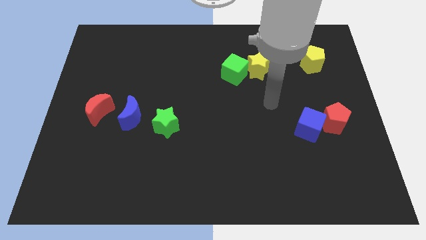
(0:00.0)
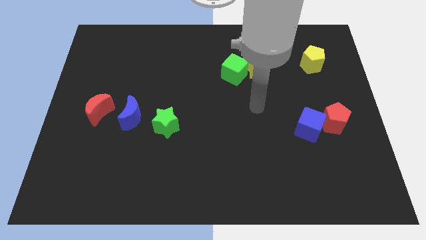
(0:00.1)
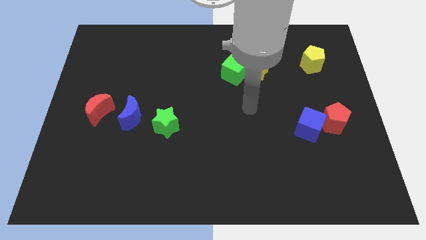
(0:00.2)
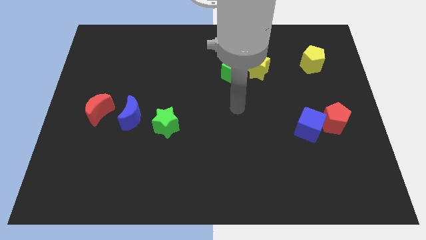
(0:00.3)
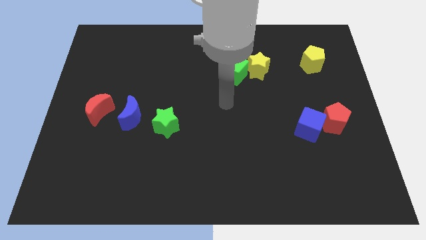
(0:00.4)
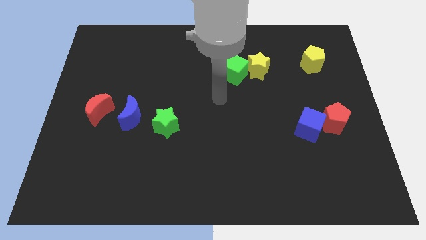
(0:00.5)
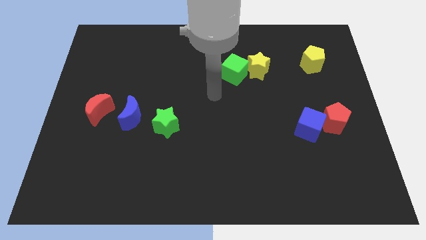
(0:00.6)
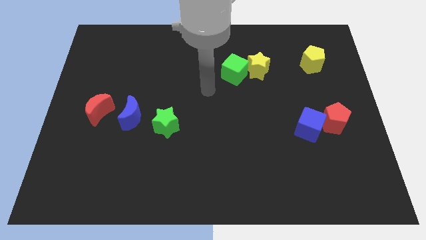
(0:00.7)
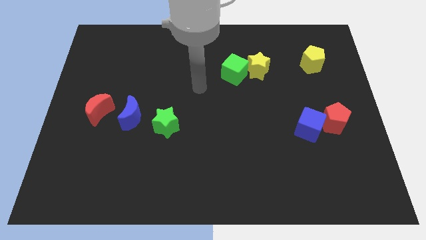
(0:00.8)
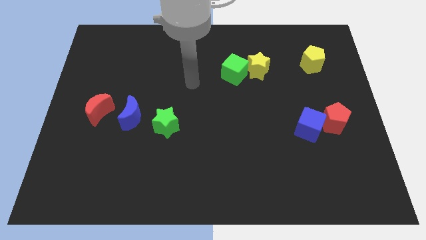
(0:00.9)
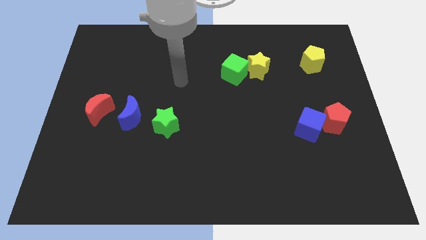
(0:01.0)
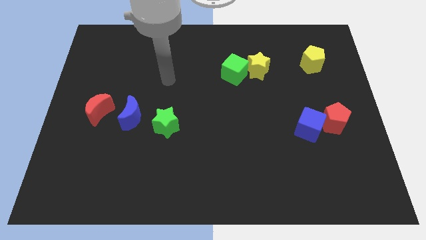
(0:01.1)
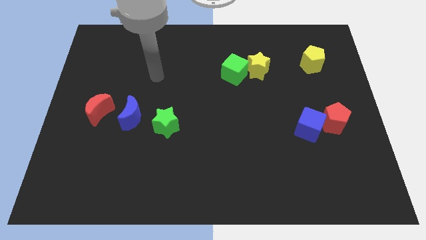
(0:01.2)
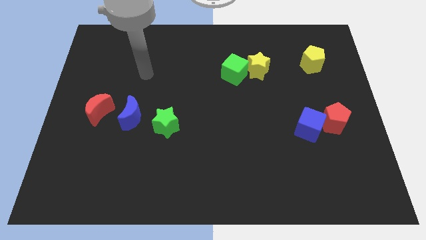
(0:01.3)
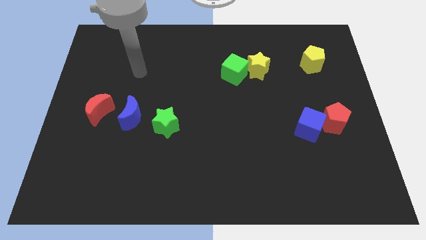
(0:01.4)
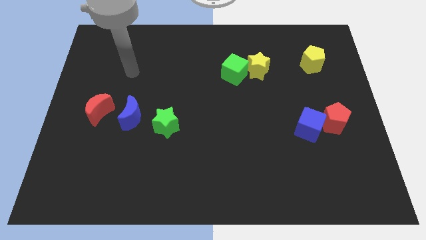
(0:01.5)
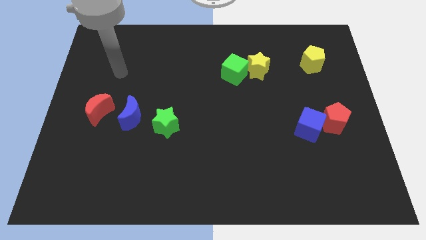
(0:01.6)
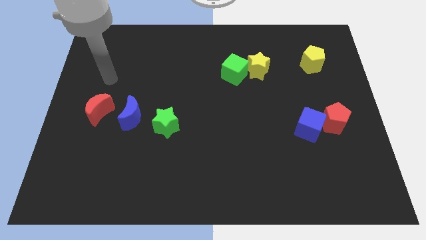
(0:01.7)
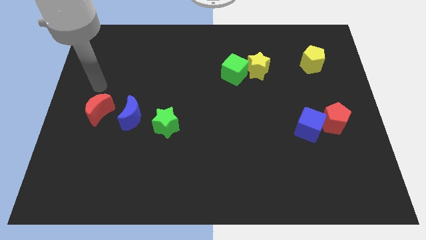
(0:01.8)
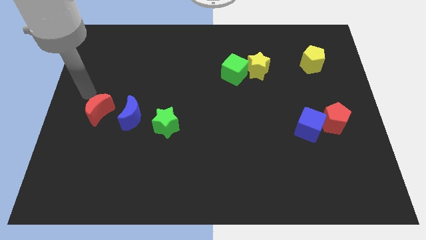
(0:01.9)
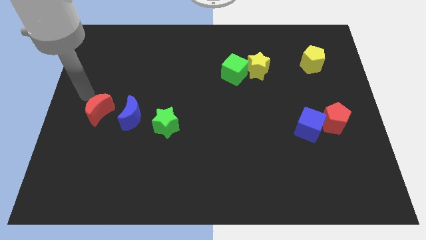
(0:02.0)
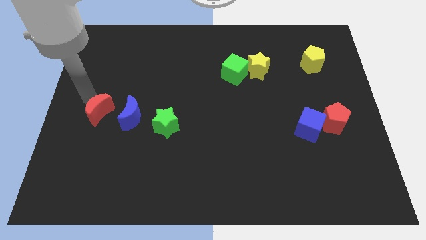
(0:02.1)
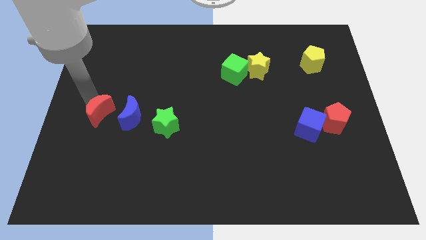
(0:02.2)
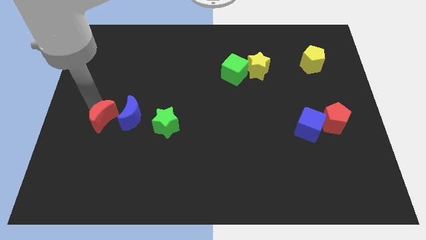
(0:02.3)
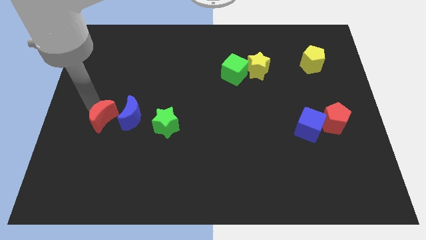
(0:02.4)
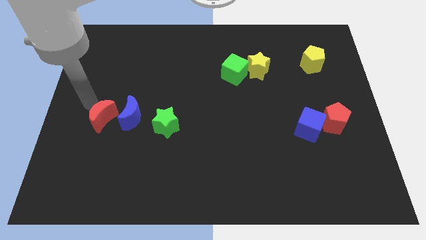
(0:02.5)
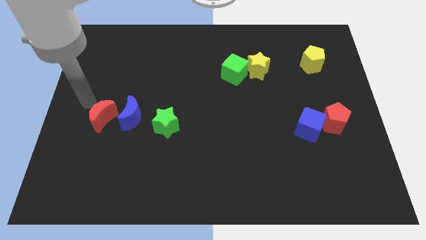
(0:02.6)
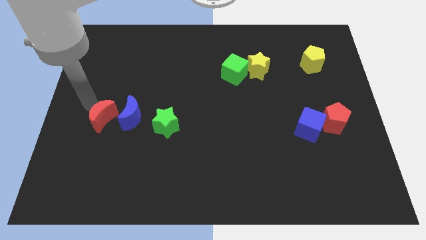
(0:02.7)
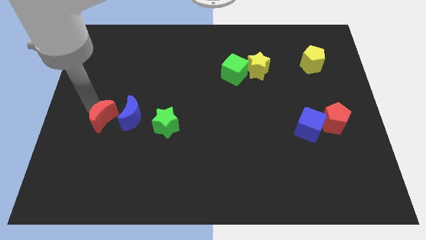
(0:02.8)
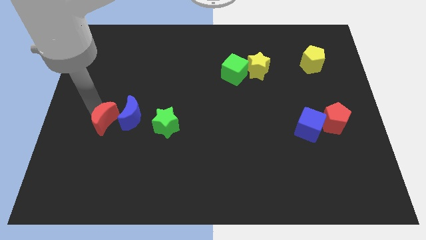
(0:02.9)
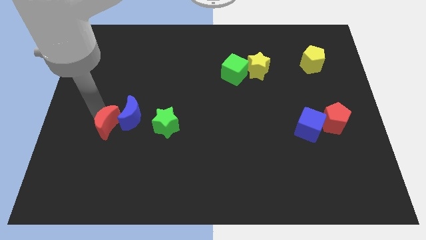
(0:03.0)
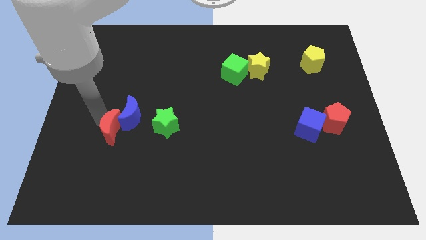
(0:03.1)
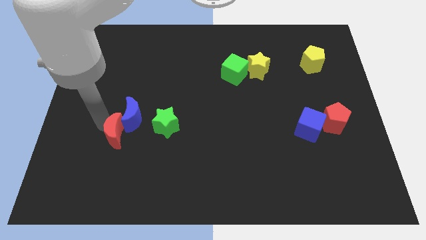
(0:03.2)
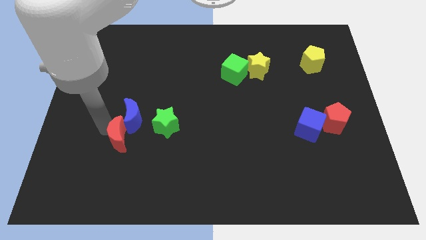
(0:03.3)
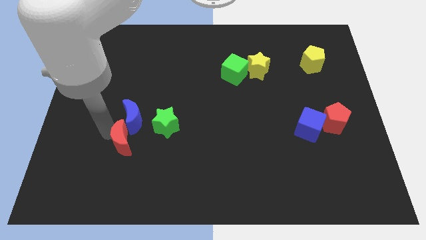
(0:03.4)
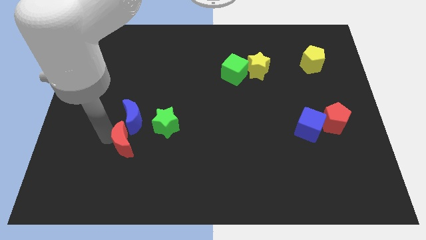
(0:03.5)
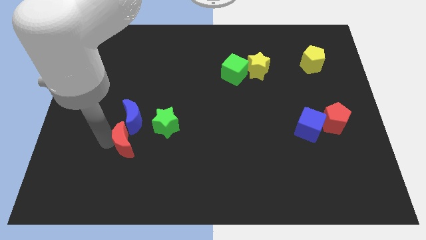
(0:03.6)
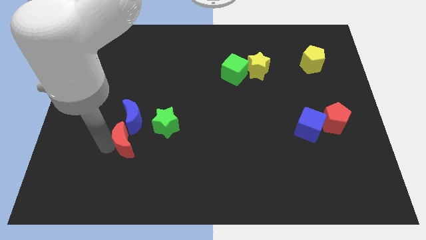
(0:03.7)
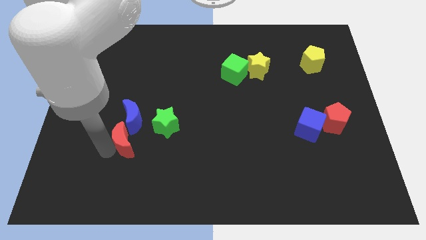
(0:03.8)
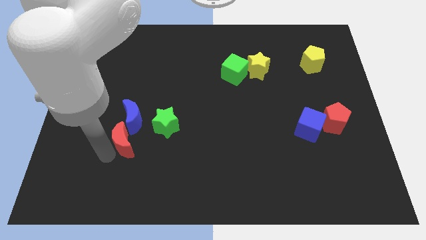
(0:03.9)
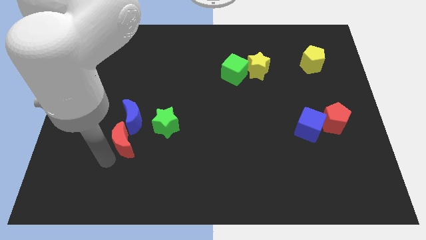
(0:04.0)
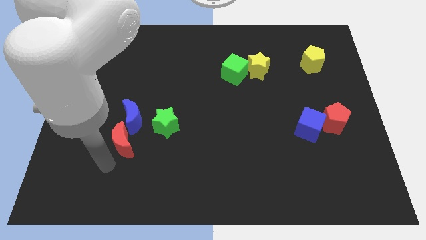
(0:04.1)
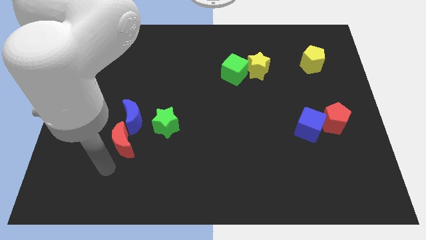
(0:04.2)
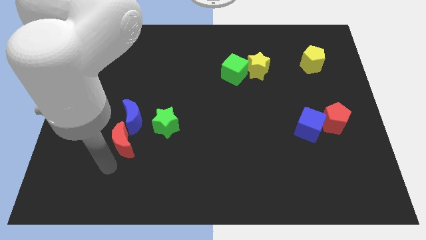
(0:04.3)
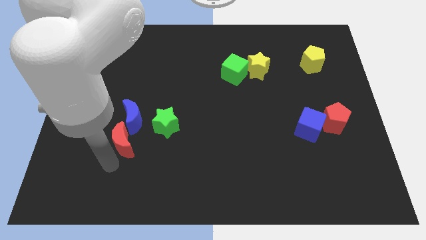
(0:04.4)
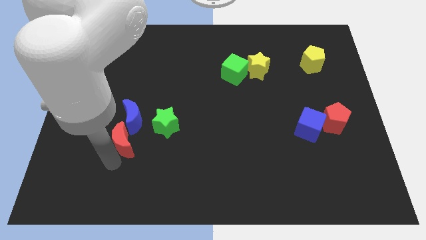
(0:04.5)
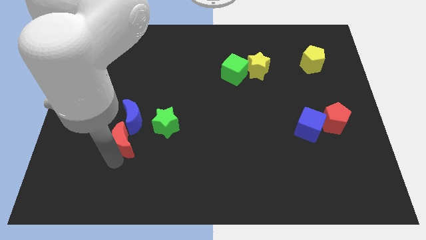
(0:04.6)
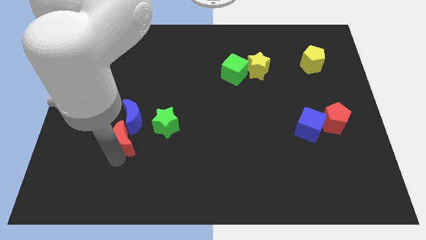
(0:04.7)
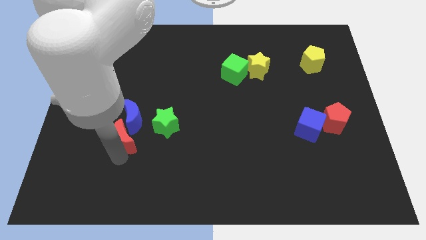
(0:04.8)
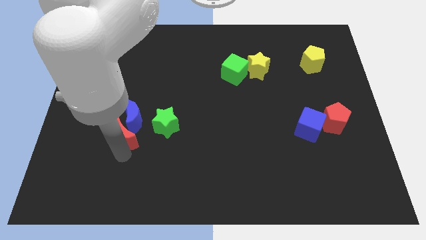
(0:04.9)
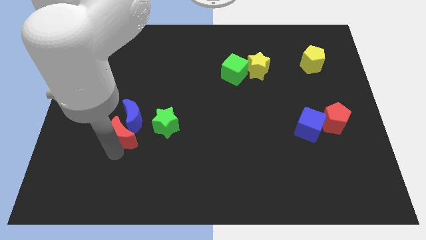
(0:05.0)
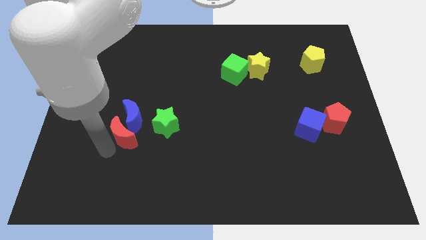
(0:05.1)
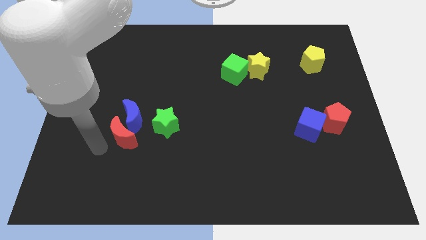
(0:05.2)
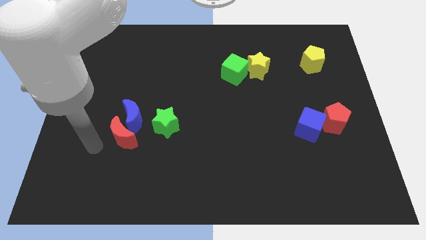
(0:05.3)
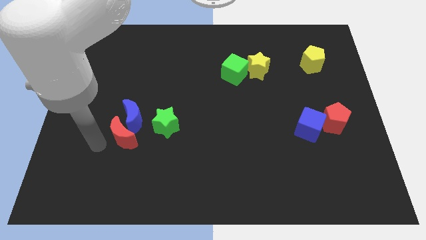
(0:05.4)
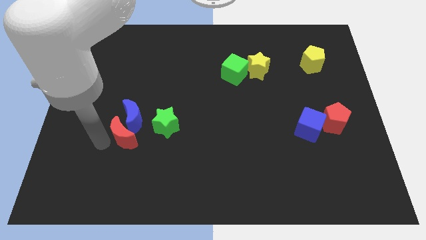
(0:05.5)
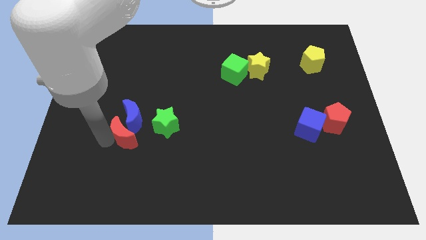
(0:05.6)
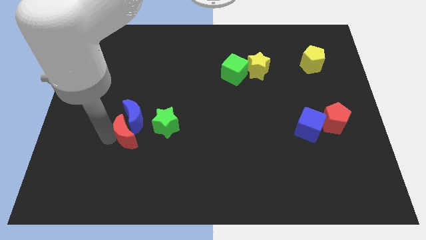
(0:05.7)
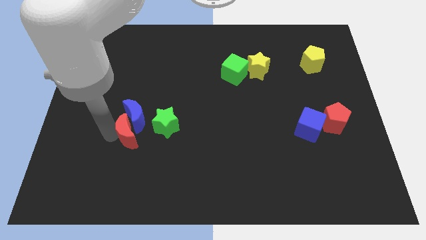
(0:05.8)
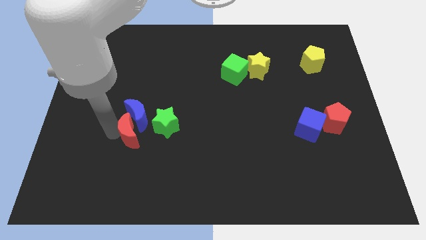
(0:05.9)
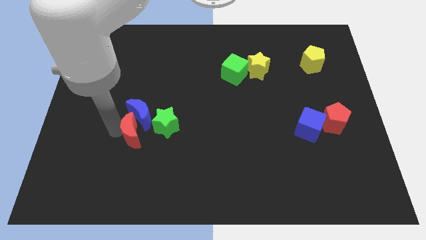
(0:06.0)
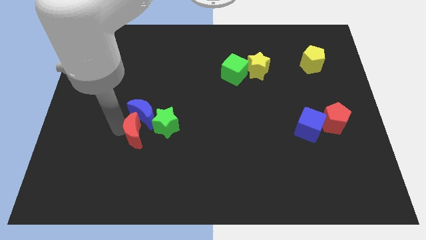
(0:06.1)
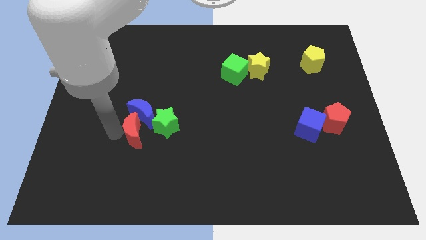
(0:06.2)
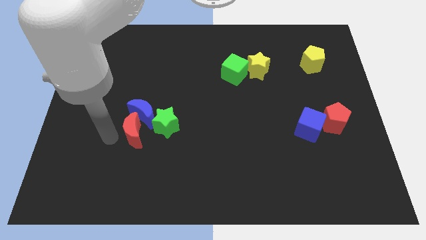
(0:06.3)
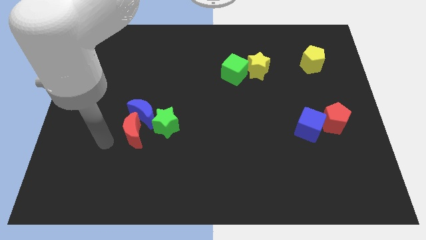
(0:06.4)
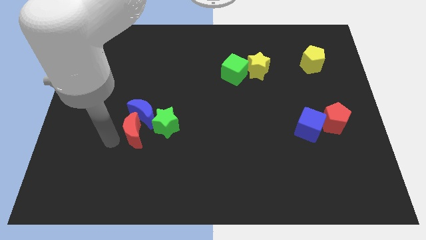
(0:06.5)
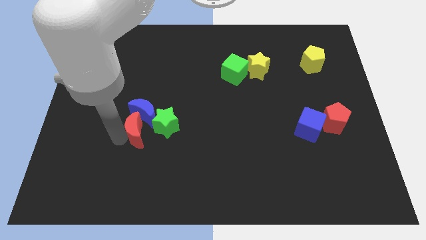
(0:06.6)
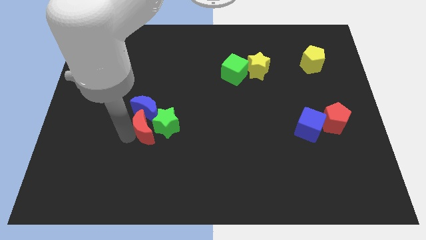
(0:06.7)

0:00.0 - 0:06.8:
push the red moon next to the green star

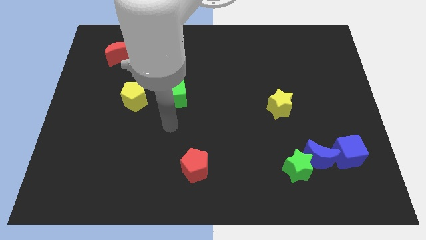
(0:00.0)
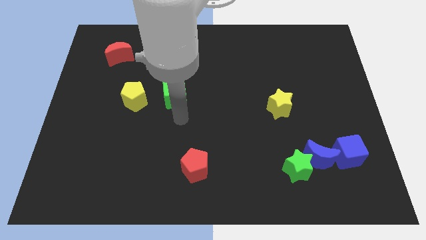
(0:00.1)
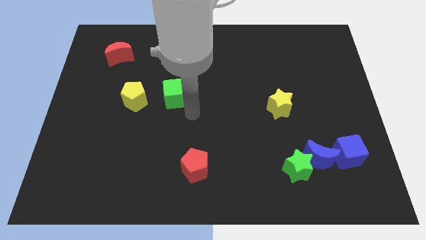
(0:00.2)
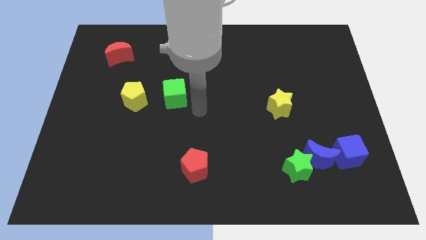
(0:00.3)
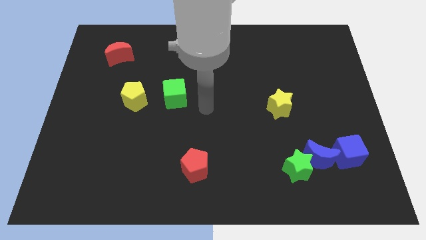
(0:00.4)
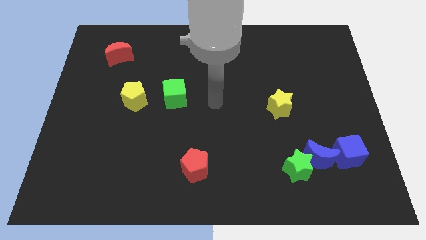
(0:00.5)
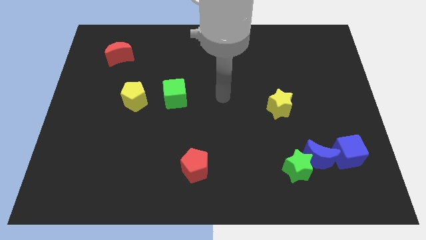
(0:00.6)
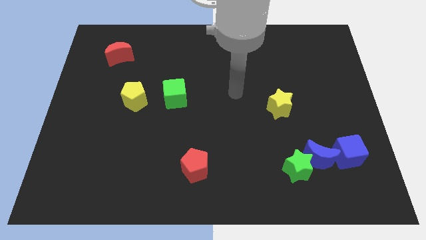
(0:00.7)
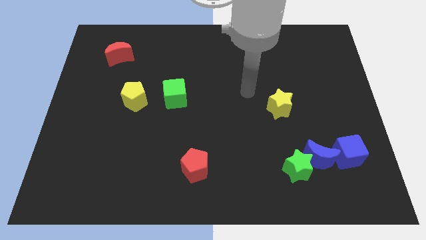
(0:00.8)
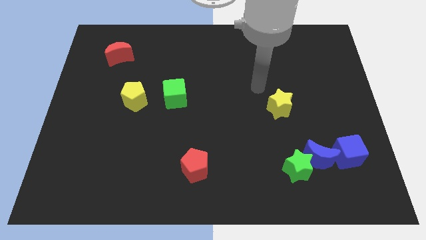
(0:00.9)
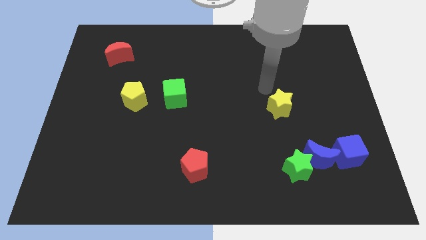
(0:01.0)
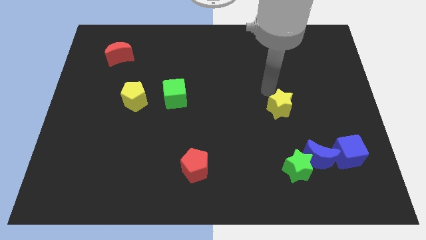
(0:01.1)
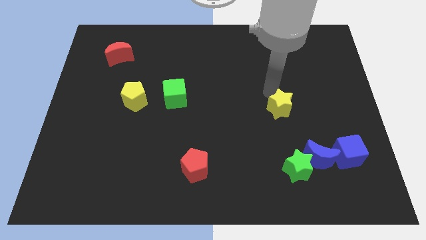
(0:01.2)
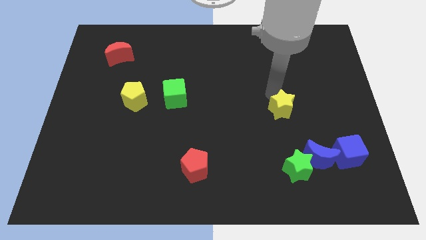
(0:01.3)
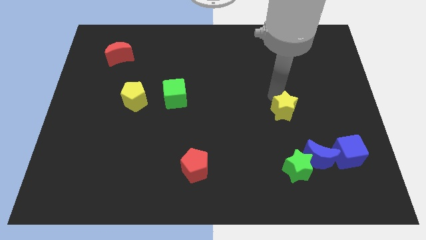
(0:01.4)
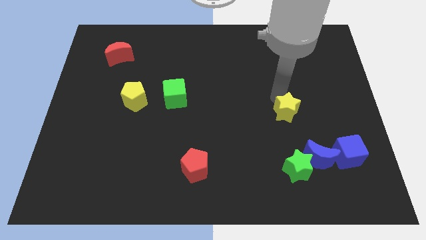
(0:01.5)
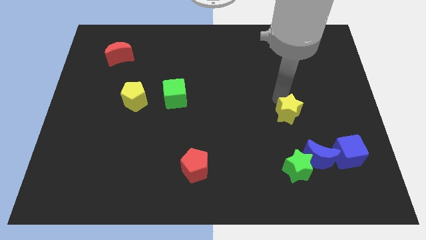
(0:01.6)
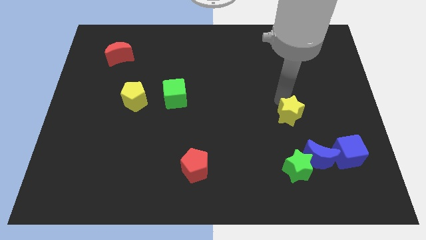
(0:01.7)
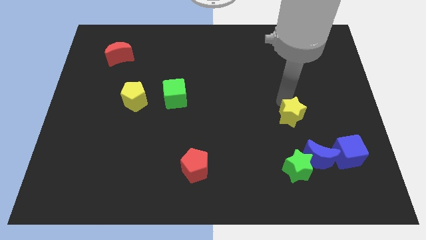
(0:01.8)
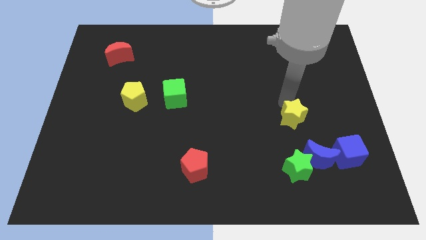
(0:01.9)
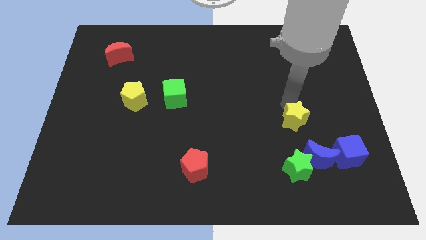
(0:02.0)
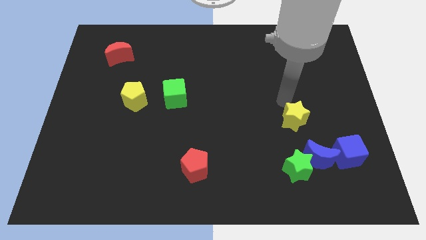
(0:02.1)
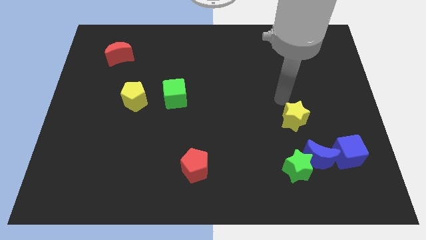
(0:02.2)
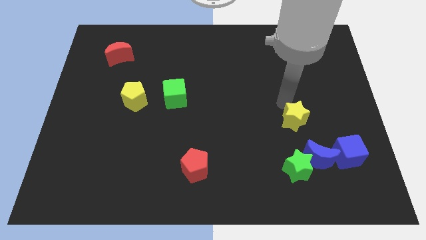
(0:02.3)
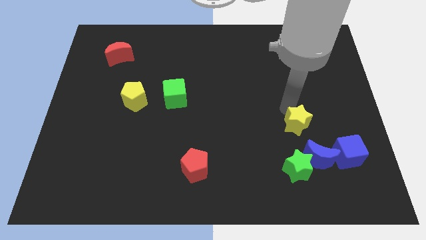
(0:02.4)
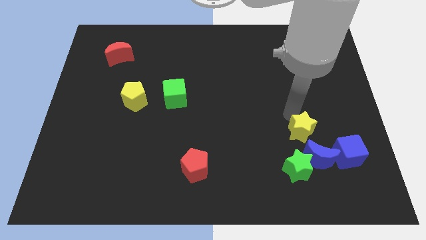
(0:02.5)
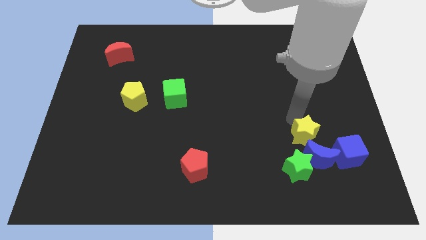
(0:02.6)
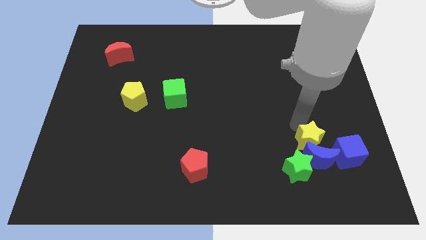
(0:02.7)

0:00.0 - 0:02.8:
push the yellow star towards the blue moon
